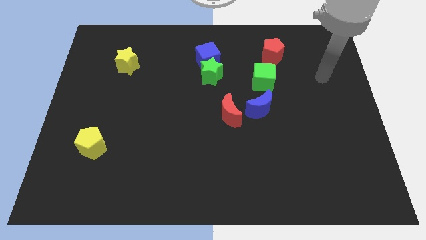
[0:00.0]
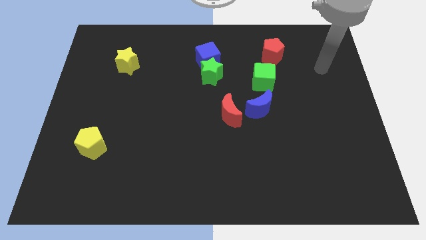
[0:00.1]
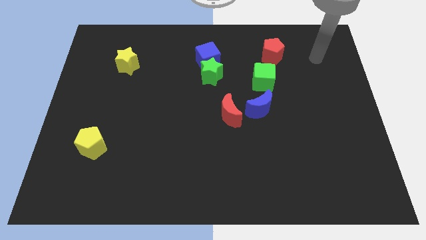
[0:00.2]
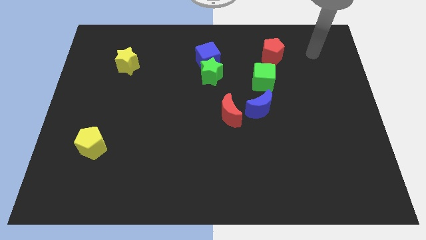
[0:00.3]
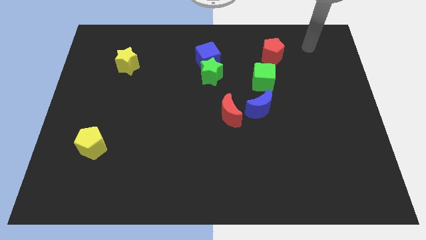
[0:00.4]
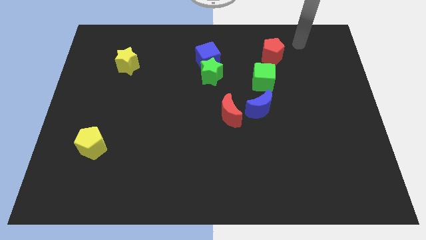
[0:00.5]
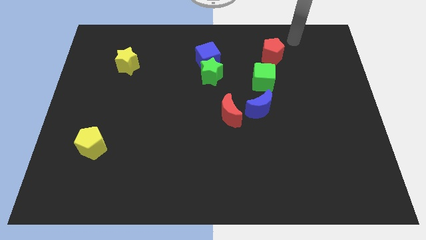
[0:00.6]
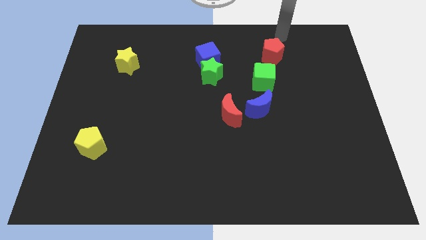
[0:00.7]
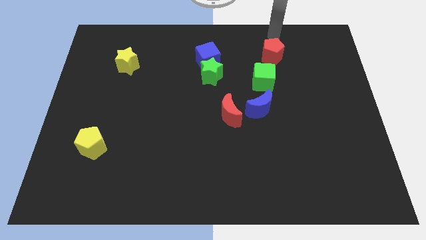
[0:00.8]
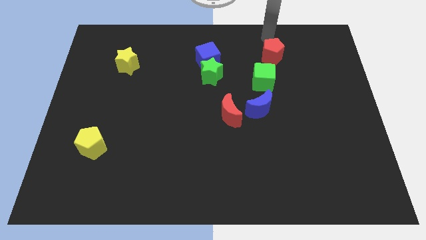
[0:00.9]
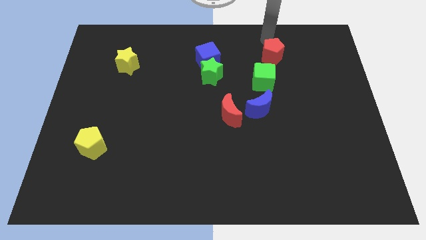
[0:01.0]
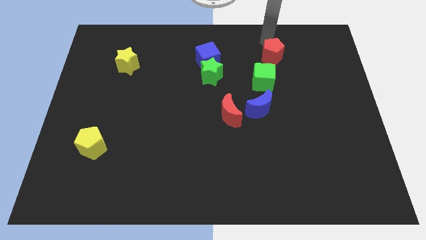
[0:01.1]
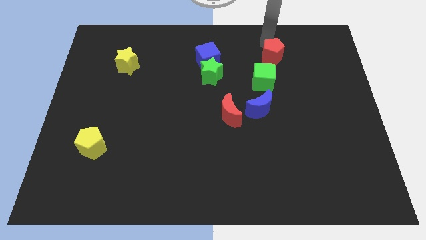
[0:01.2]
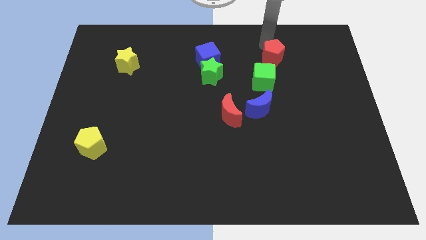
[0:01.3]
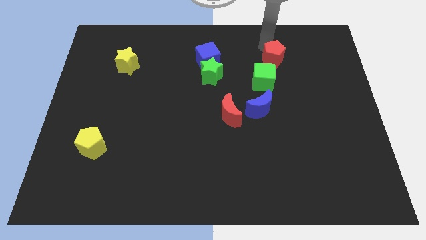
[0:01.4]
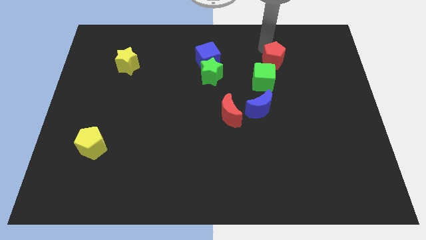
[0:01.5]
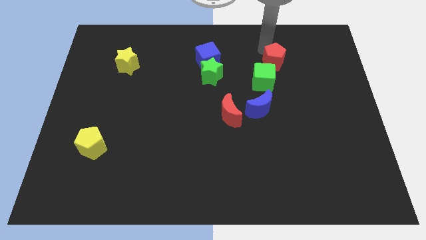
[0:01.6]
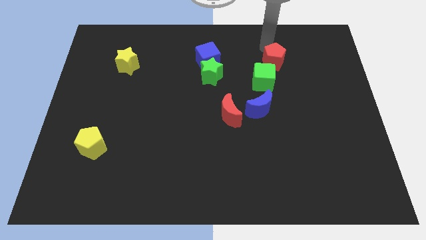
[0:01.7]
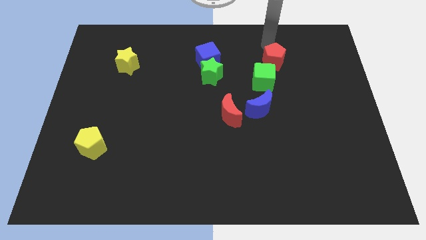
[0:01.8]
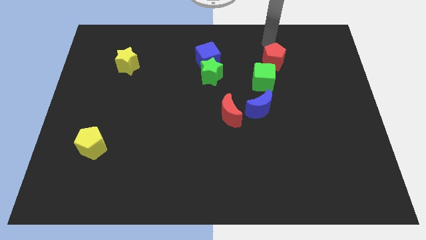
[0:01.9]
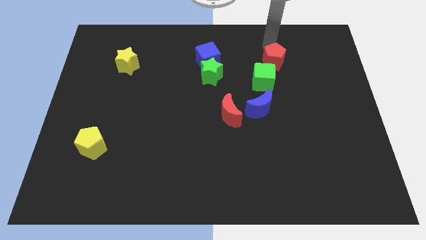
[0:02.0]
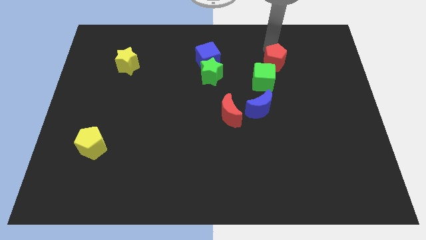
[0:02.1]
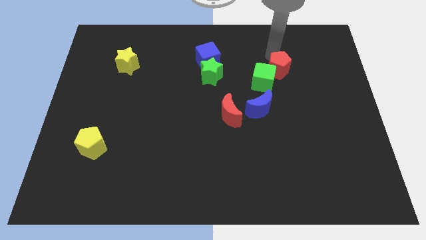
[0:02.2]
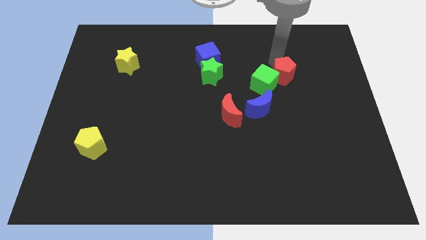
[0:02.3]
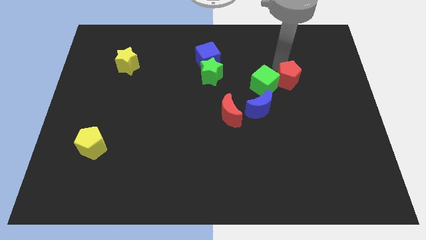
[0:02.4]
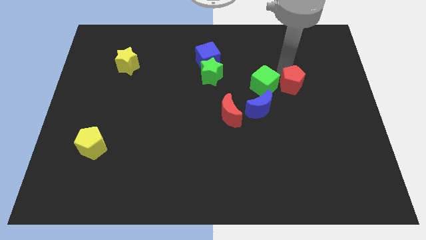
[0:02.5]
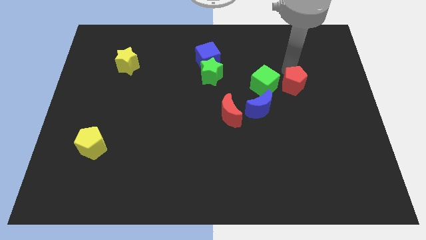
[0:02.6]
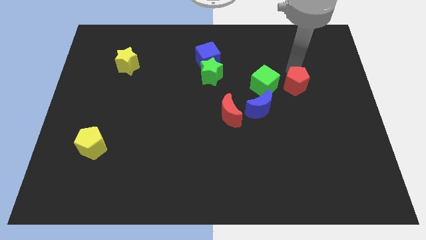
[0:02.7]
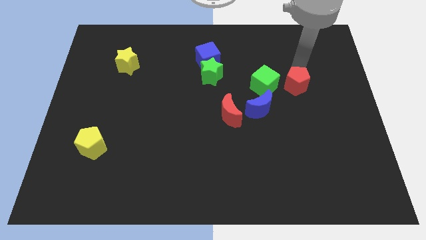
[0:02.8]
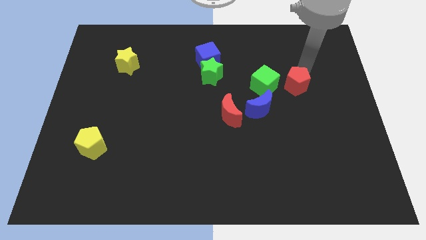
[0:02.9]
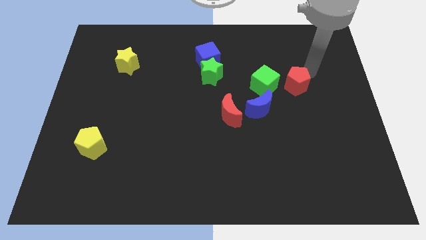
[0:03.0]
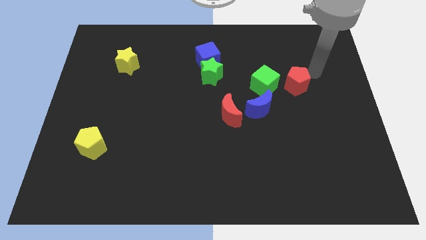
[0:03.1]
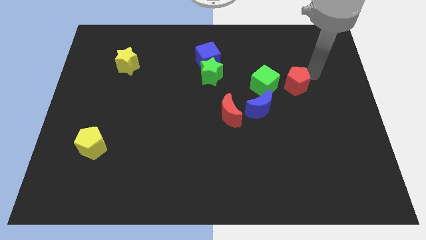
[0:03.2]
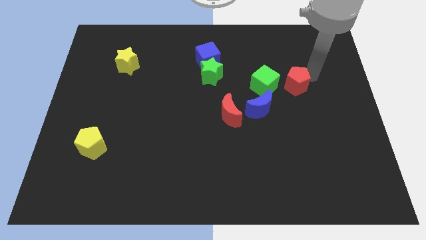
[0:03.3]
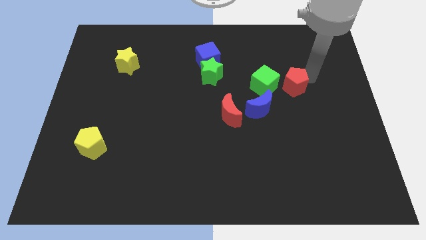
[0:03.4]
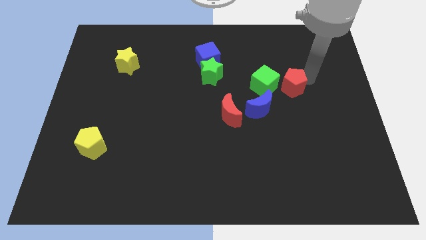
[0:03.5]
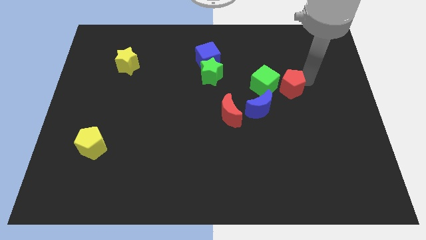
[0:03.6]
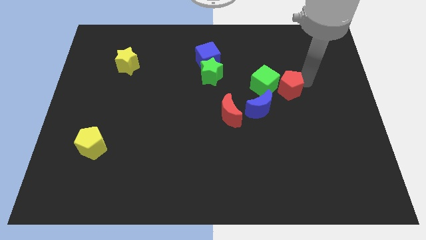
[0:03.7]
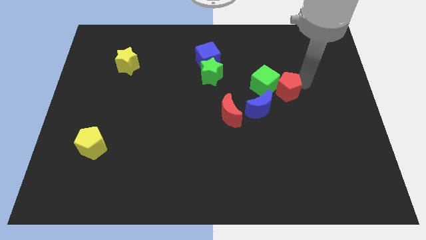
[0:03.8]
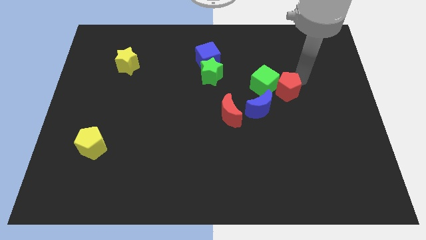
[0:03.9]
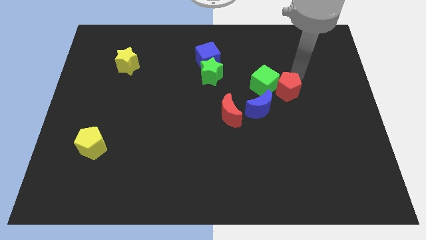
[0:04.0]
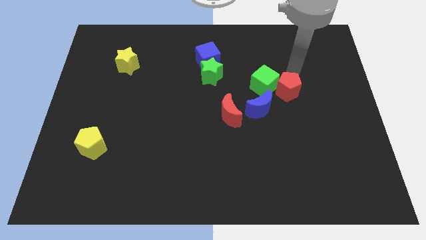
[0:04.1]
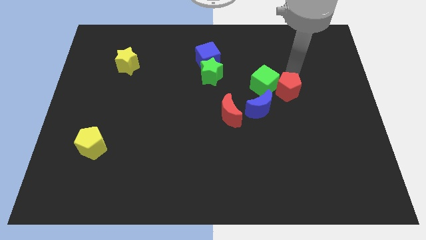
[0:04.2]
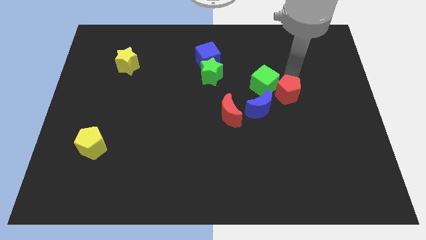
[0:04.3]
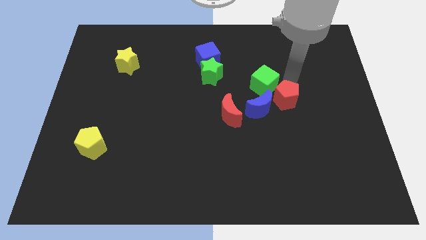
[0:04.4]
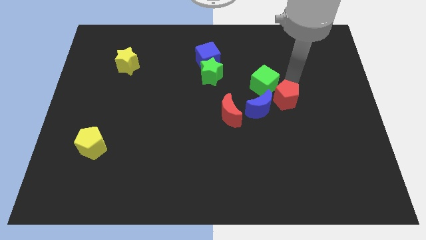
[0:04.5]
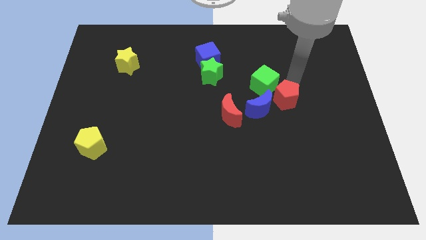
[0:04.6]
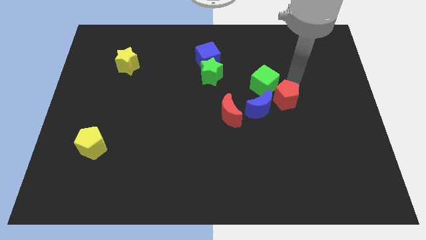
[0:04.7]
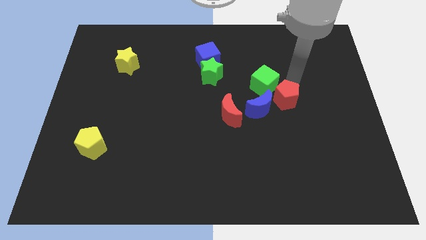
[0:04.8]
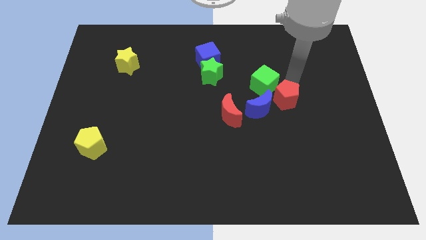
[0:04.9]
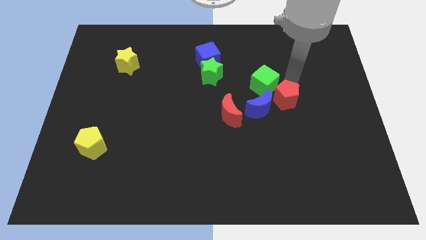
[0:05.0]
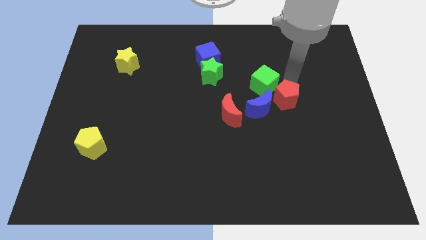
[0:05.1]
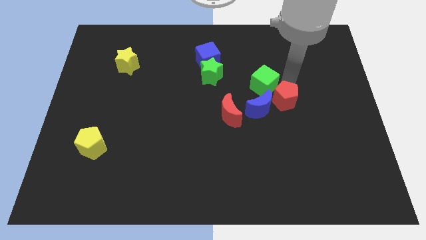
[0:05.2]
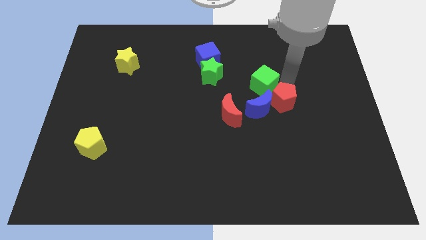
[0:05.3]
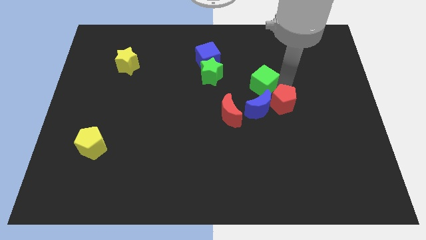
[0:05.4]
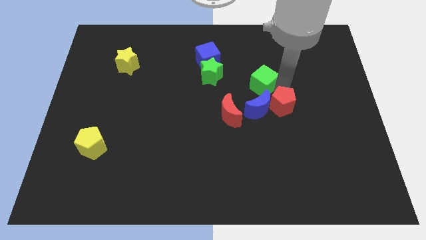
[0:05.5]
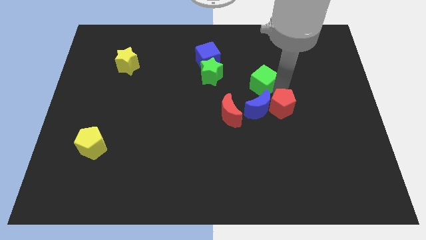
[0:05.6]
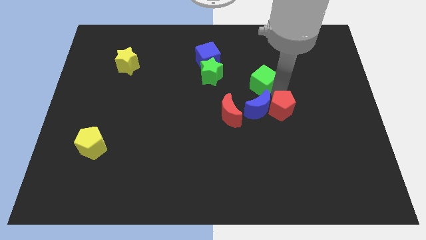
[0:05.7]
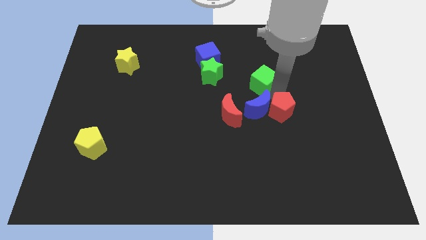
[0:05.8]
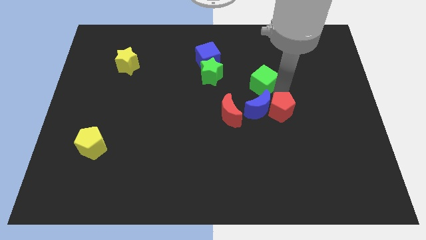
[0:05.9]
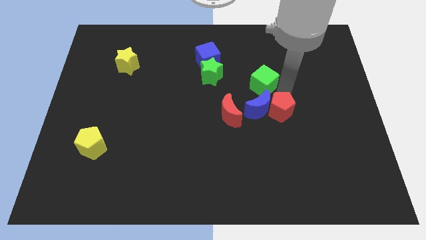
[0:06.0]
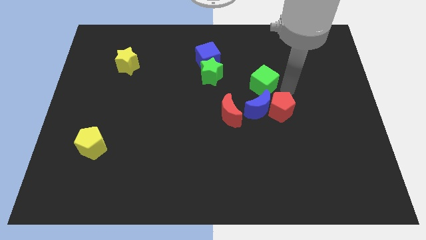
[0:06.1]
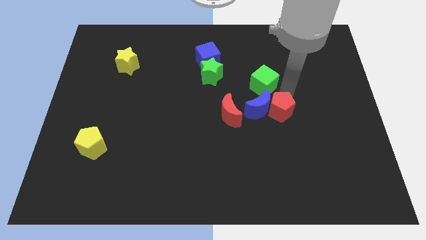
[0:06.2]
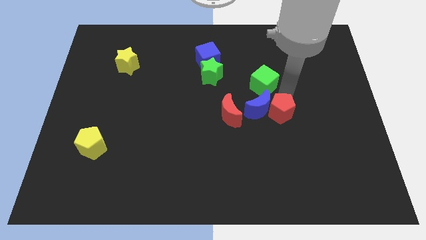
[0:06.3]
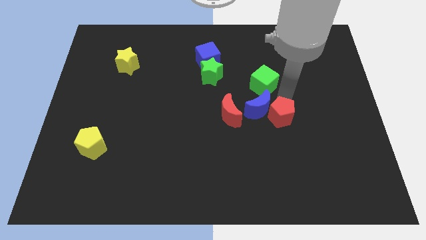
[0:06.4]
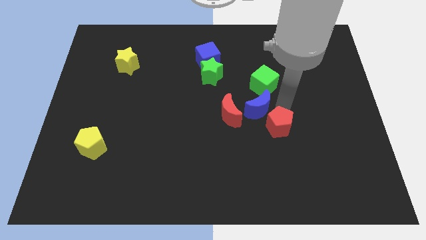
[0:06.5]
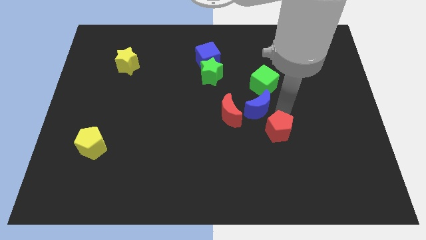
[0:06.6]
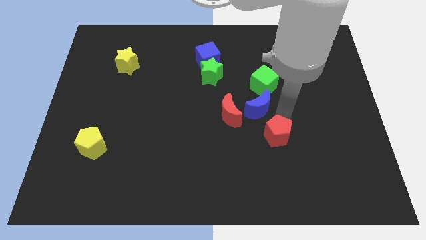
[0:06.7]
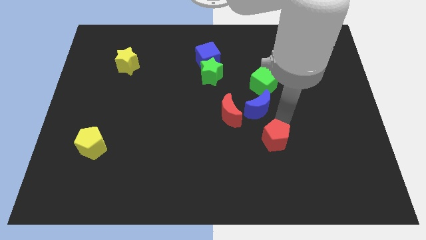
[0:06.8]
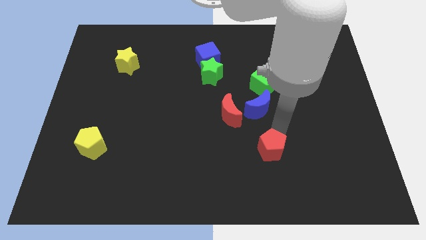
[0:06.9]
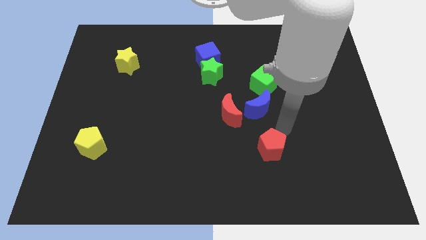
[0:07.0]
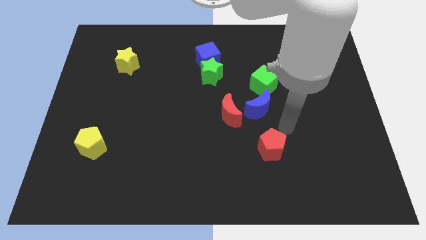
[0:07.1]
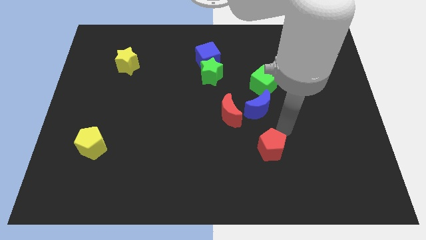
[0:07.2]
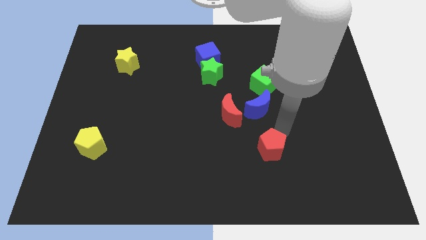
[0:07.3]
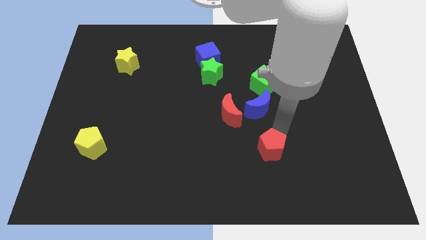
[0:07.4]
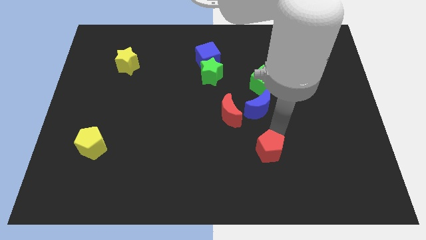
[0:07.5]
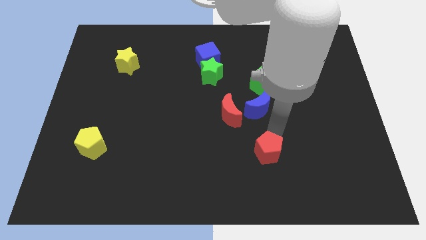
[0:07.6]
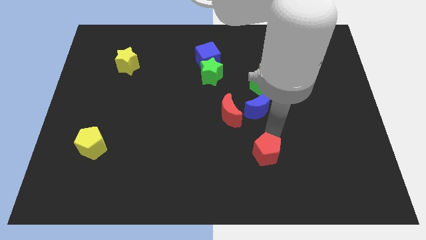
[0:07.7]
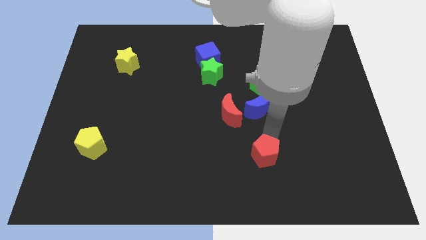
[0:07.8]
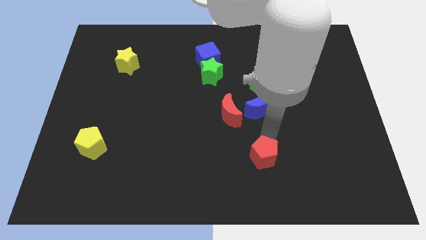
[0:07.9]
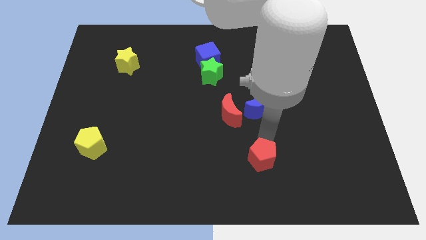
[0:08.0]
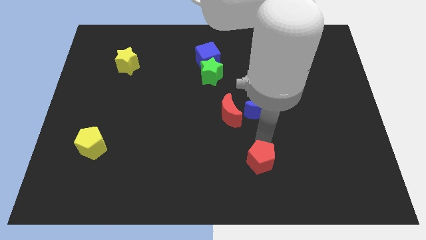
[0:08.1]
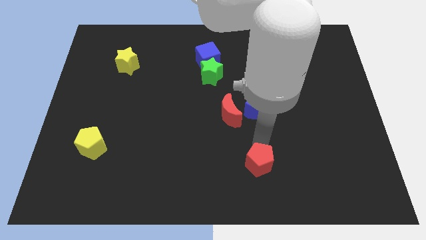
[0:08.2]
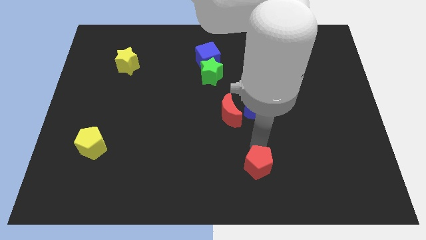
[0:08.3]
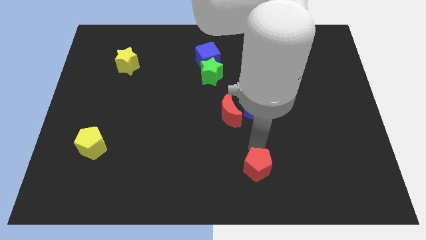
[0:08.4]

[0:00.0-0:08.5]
move the red pentagon to the bottom
